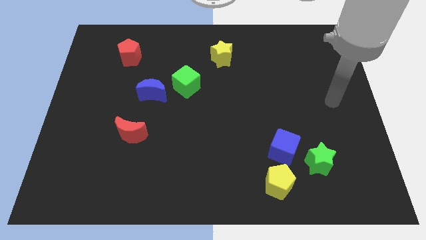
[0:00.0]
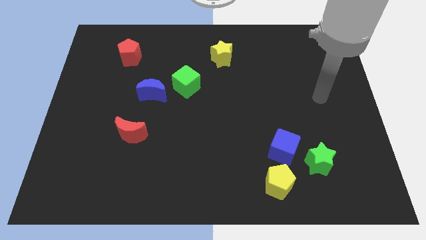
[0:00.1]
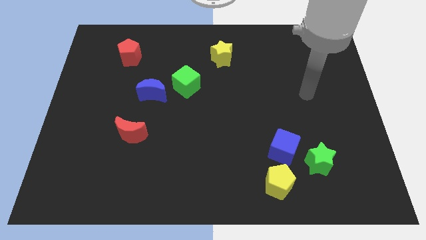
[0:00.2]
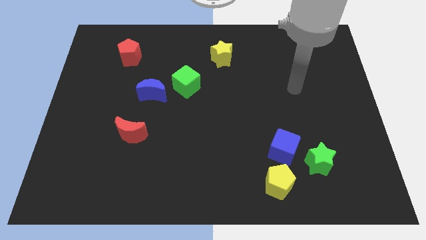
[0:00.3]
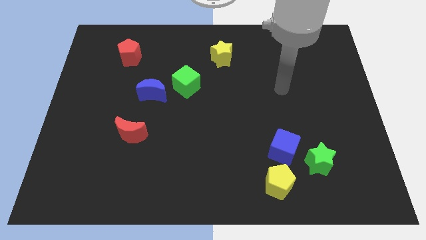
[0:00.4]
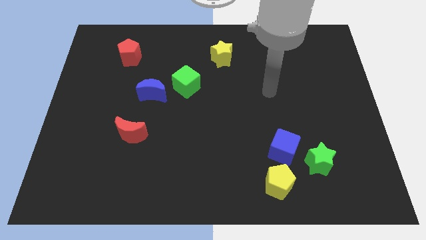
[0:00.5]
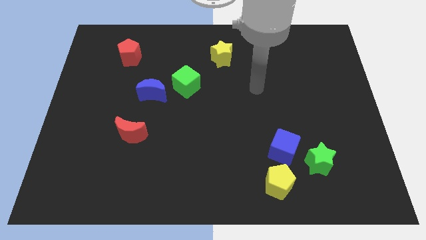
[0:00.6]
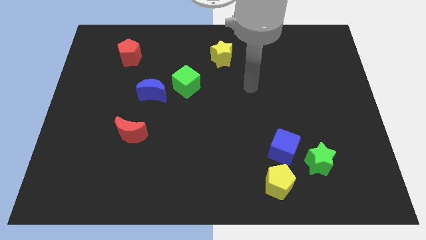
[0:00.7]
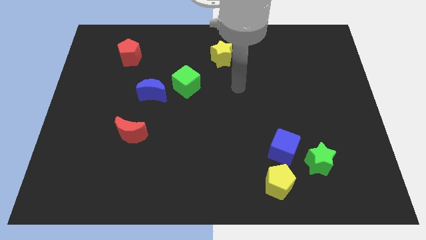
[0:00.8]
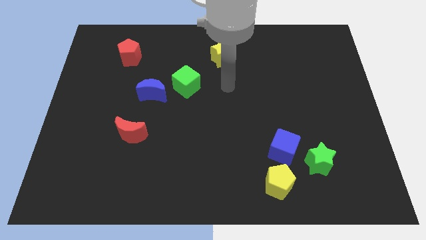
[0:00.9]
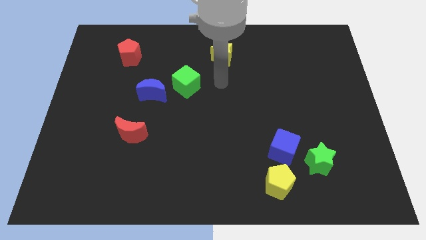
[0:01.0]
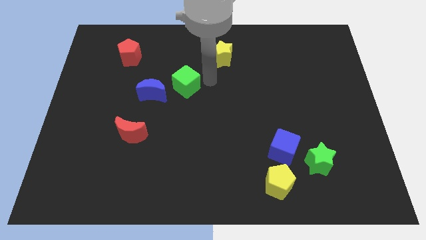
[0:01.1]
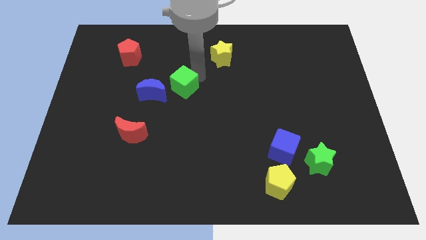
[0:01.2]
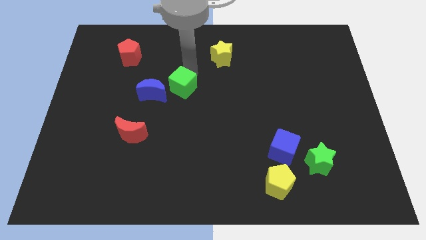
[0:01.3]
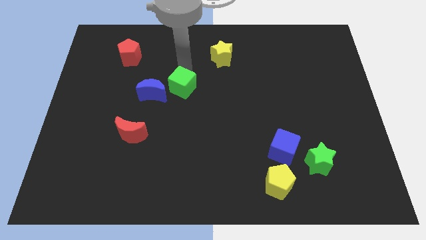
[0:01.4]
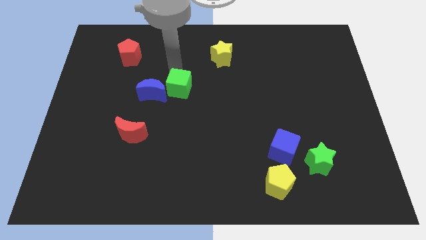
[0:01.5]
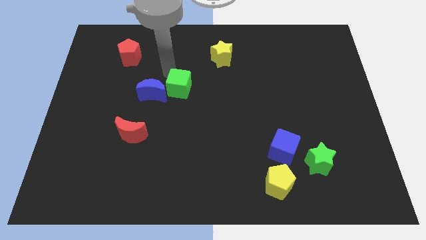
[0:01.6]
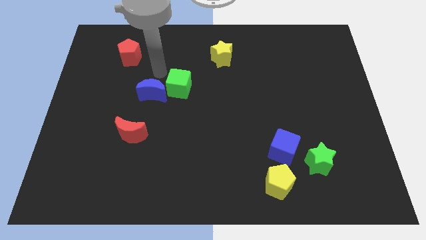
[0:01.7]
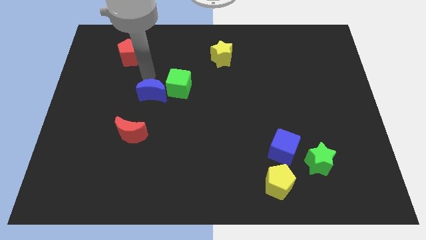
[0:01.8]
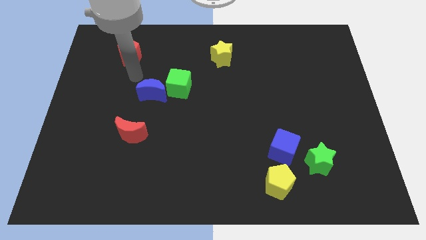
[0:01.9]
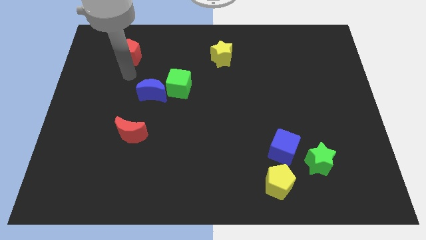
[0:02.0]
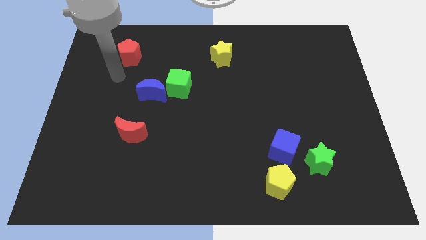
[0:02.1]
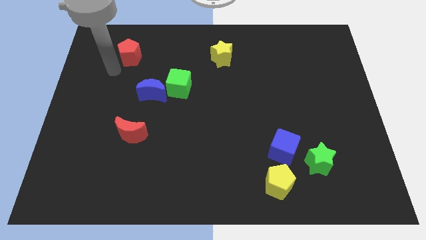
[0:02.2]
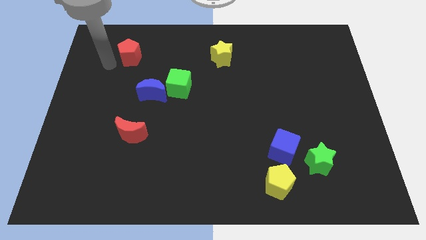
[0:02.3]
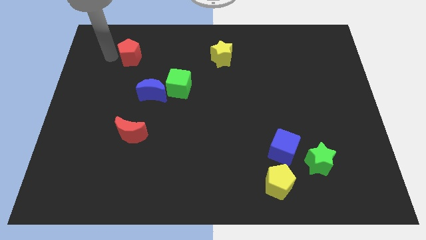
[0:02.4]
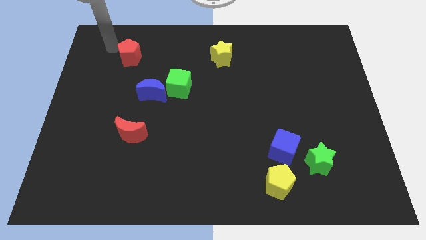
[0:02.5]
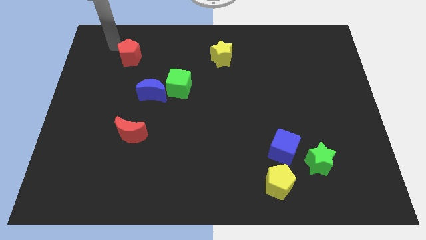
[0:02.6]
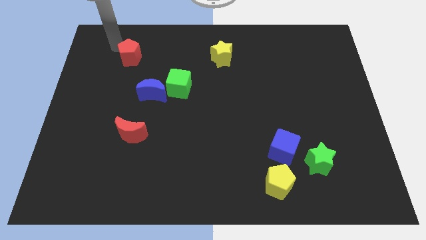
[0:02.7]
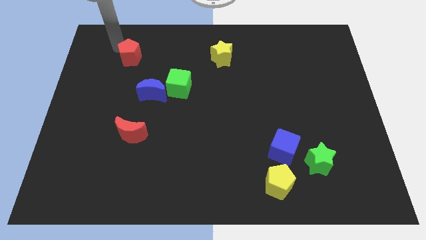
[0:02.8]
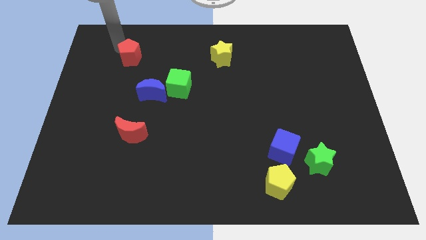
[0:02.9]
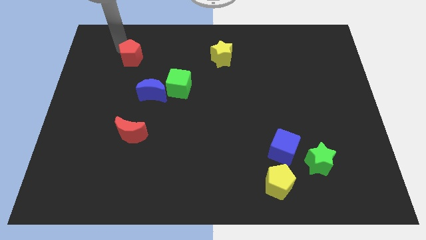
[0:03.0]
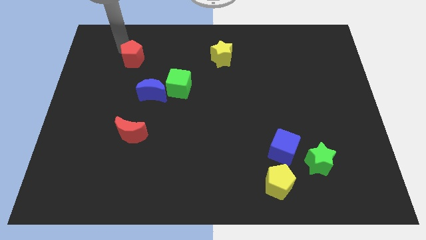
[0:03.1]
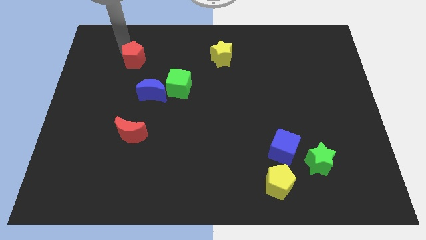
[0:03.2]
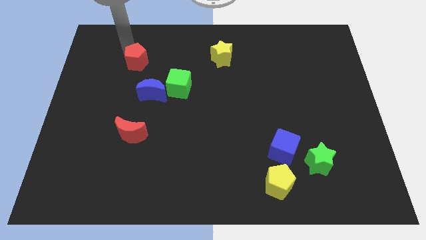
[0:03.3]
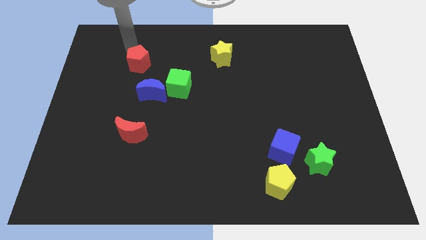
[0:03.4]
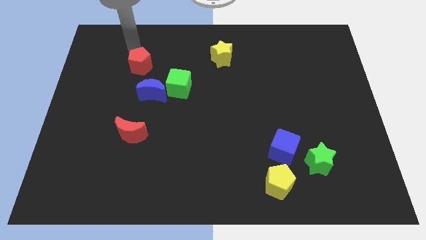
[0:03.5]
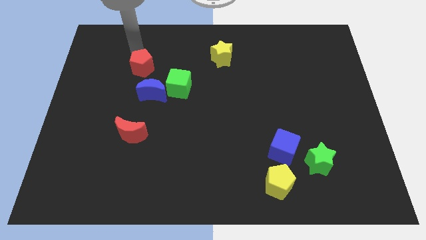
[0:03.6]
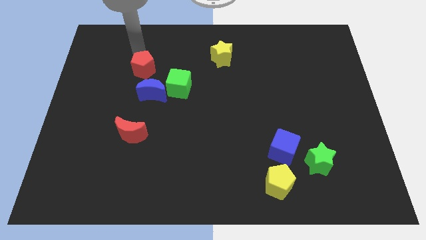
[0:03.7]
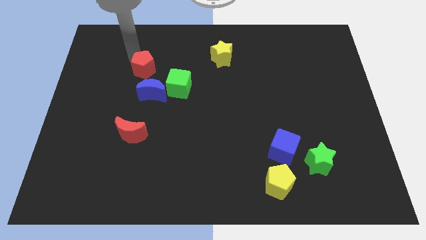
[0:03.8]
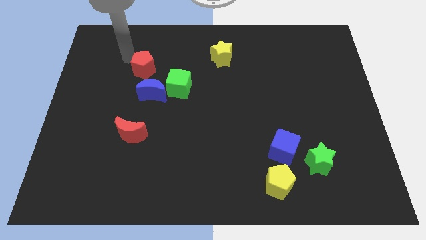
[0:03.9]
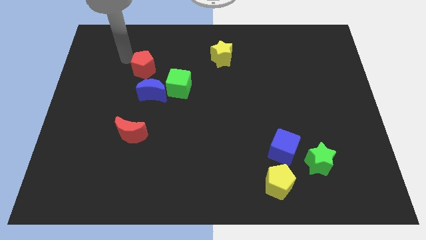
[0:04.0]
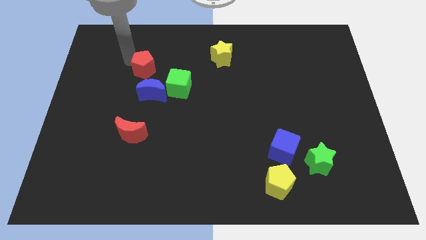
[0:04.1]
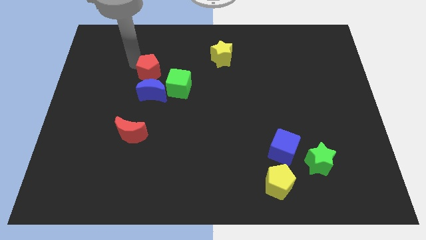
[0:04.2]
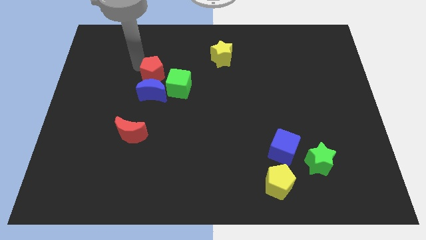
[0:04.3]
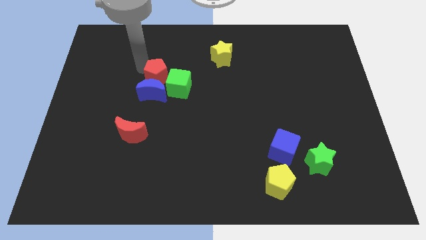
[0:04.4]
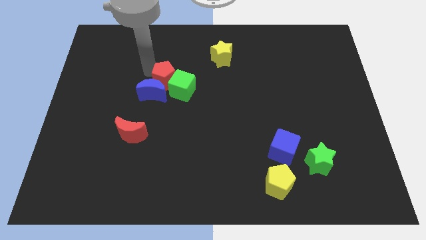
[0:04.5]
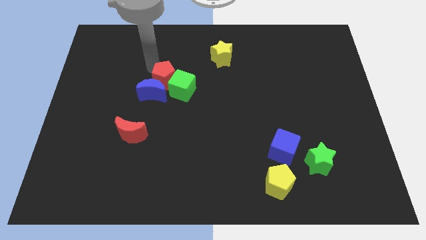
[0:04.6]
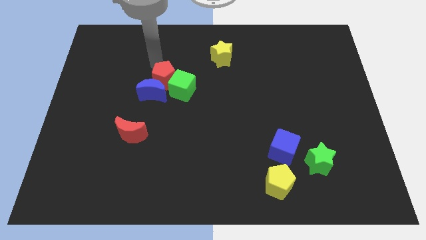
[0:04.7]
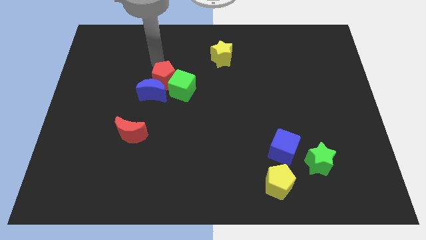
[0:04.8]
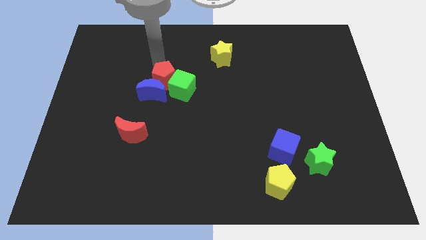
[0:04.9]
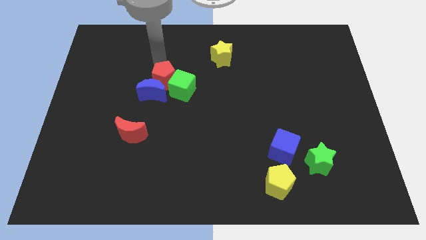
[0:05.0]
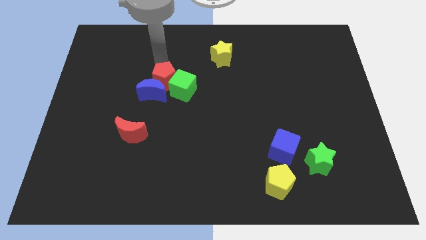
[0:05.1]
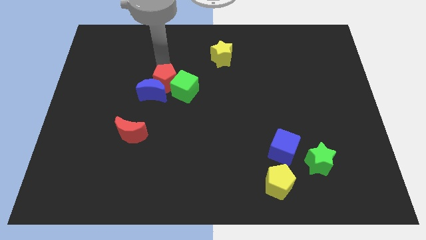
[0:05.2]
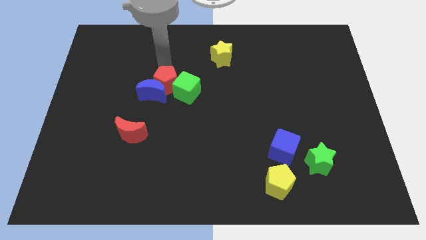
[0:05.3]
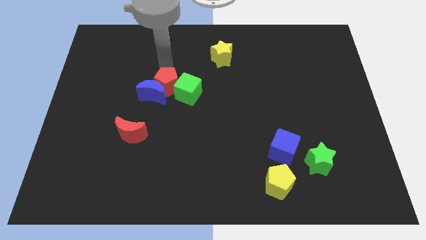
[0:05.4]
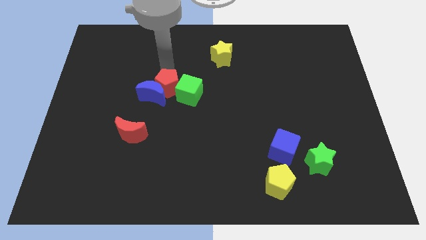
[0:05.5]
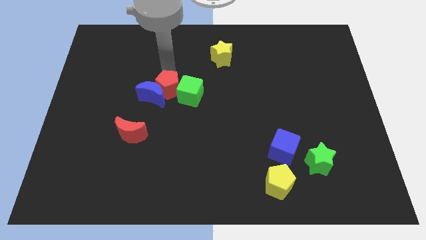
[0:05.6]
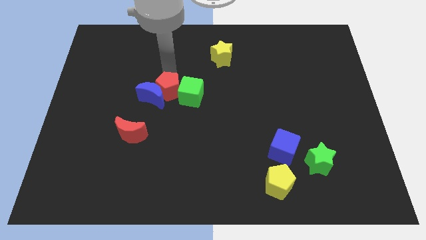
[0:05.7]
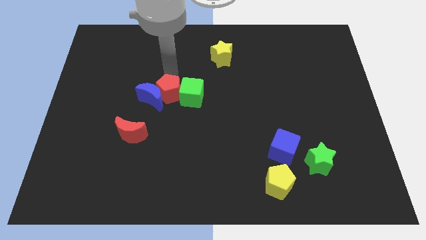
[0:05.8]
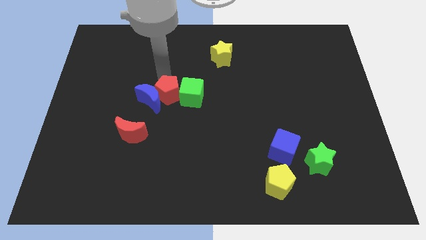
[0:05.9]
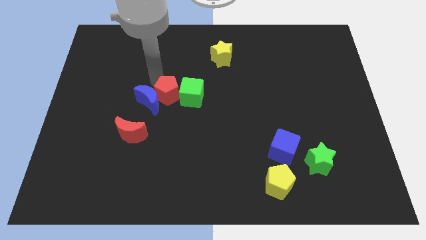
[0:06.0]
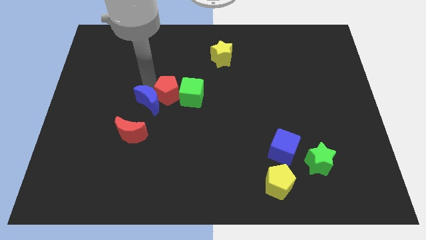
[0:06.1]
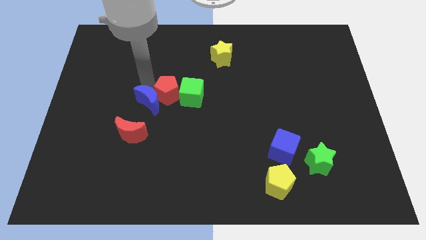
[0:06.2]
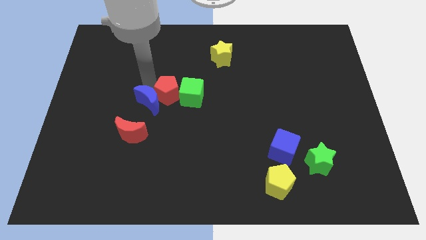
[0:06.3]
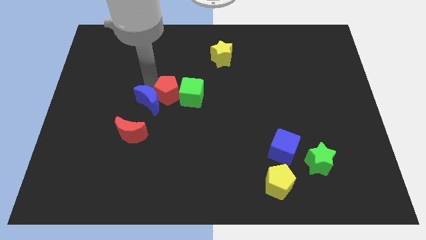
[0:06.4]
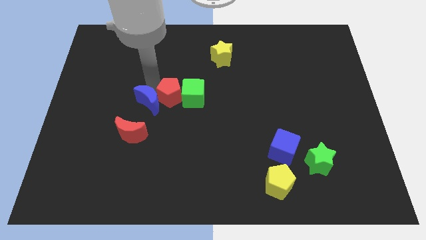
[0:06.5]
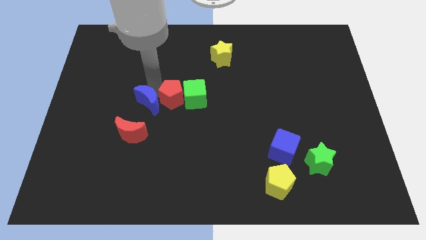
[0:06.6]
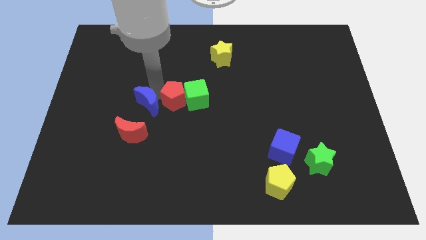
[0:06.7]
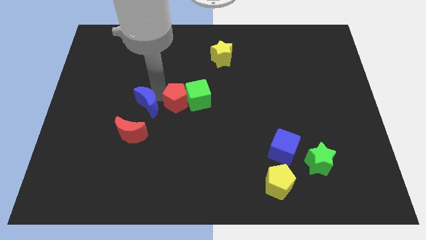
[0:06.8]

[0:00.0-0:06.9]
slide the red pentagon down and to the right diagonally

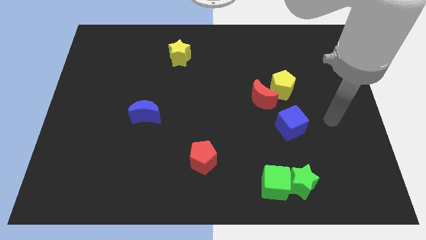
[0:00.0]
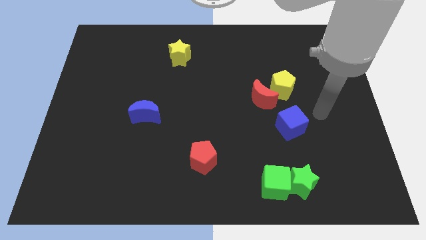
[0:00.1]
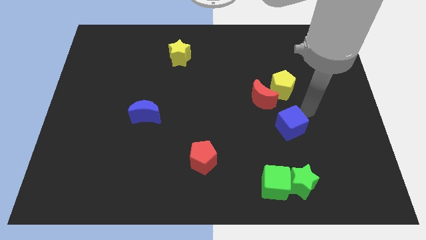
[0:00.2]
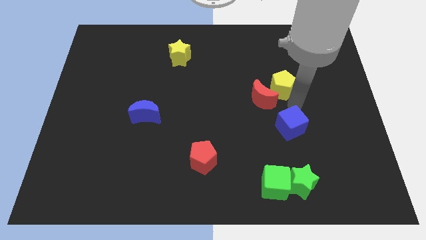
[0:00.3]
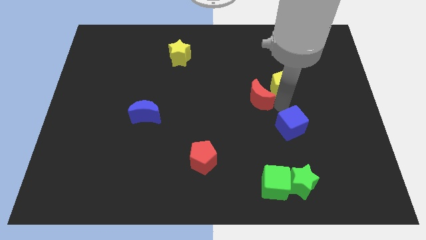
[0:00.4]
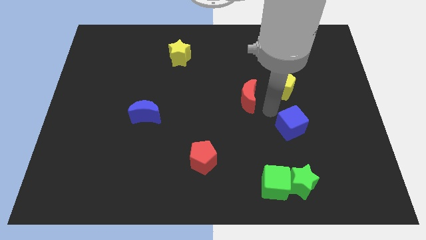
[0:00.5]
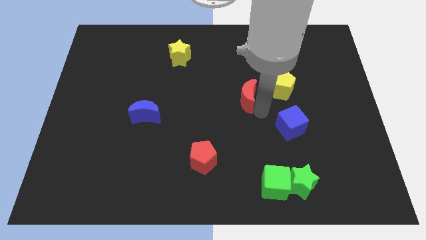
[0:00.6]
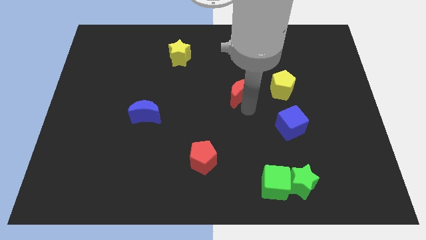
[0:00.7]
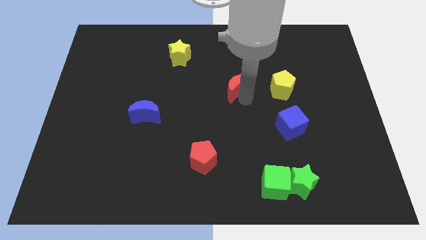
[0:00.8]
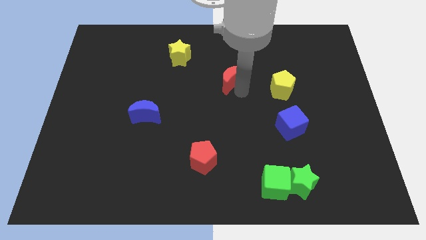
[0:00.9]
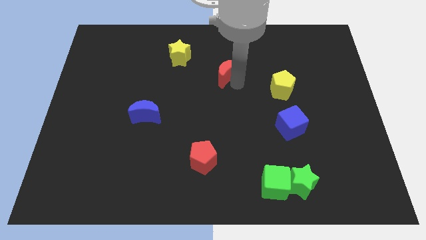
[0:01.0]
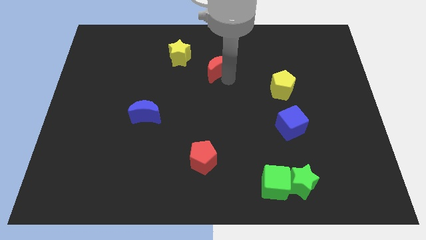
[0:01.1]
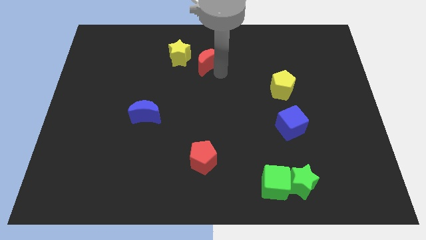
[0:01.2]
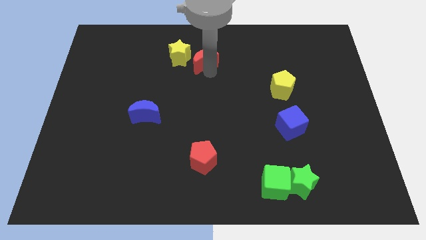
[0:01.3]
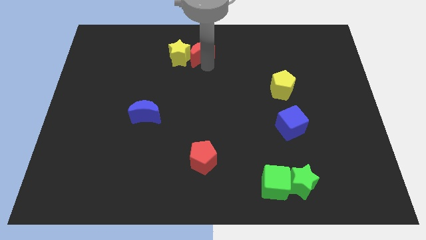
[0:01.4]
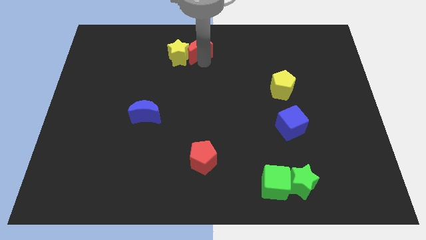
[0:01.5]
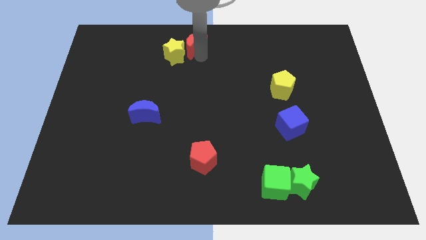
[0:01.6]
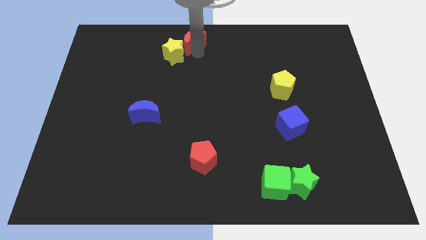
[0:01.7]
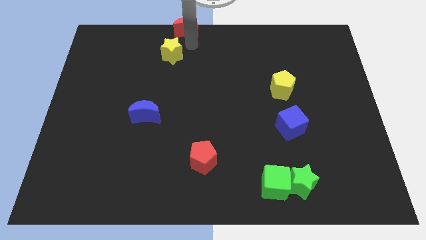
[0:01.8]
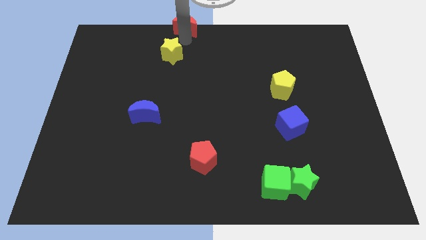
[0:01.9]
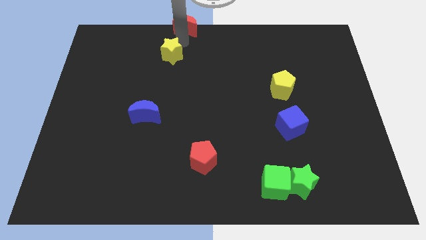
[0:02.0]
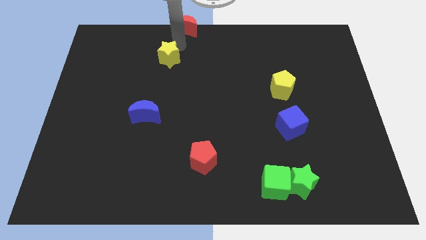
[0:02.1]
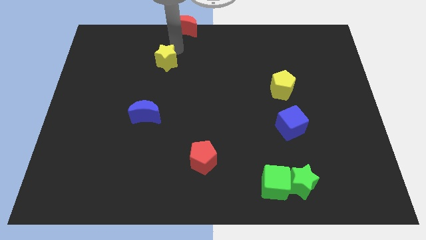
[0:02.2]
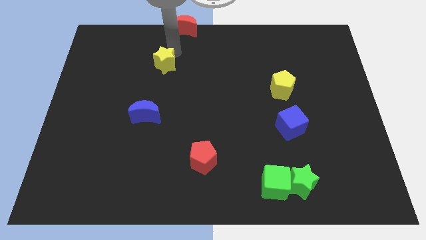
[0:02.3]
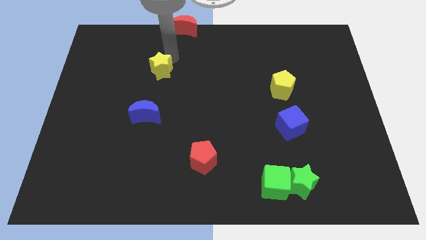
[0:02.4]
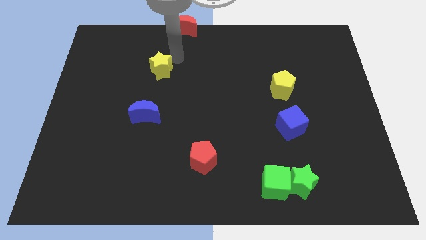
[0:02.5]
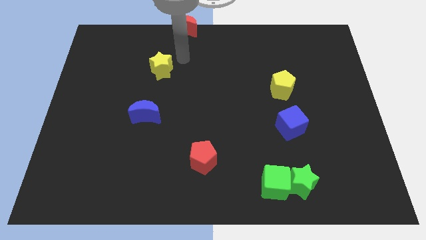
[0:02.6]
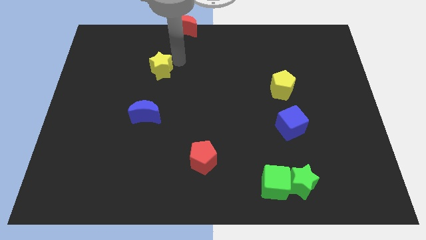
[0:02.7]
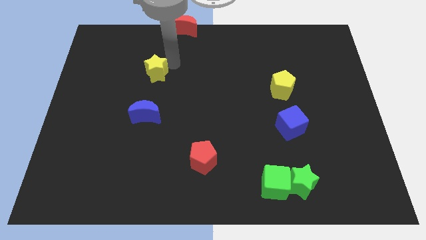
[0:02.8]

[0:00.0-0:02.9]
move the yellow star downwards and left a little
